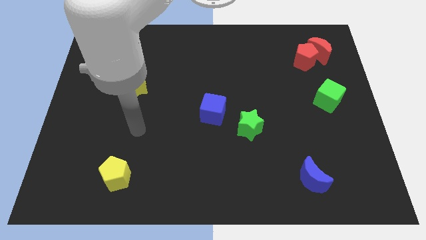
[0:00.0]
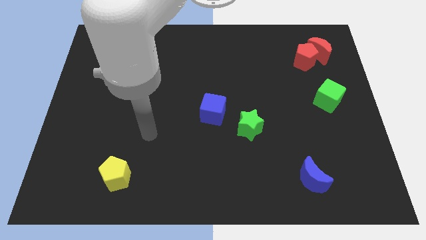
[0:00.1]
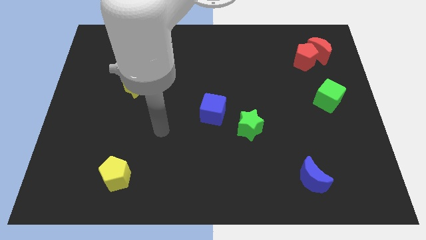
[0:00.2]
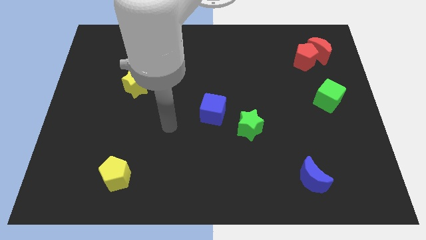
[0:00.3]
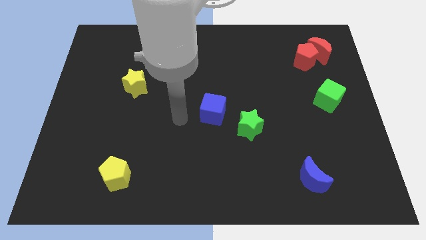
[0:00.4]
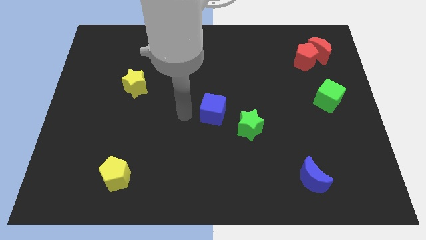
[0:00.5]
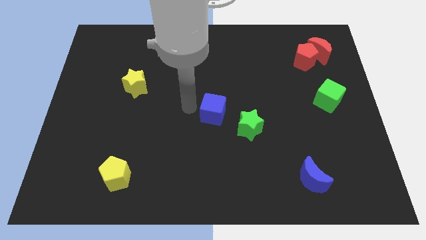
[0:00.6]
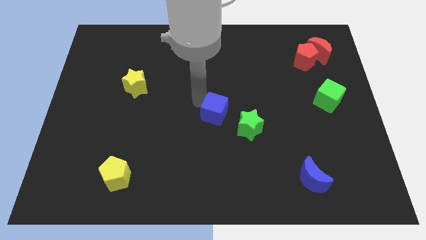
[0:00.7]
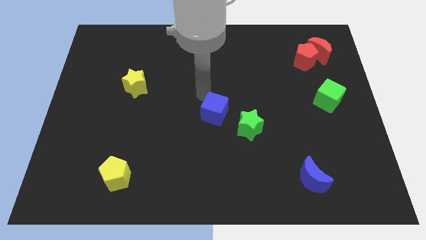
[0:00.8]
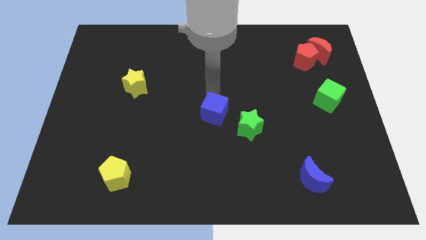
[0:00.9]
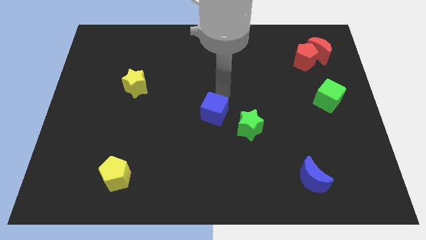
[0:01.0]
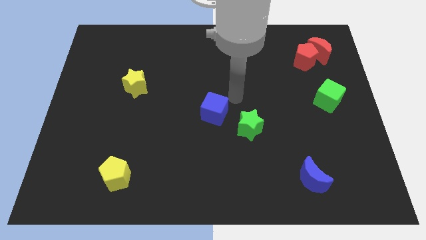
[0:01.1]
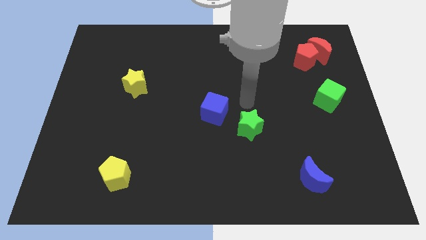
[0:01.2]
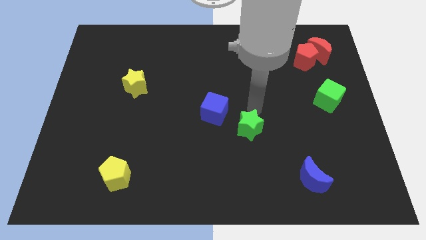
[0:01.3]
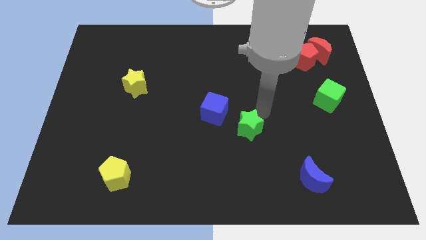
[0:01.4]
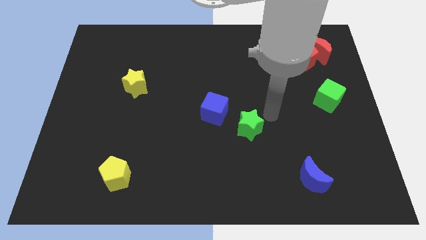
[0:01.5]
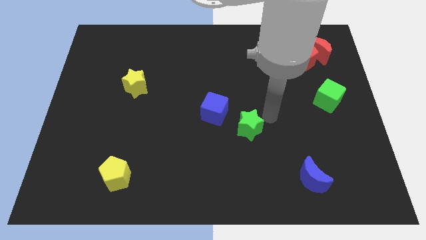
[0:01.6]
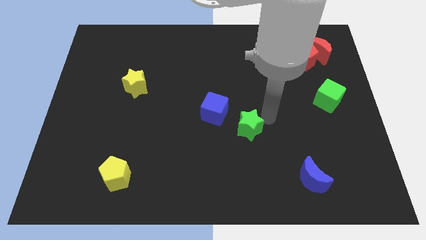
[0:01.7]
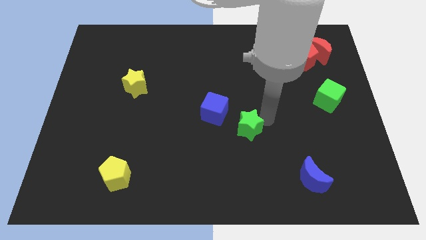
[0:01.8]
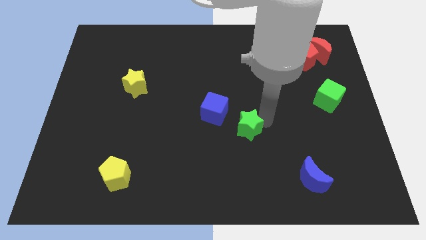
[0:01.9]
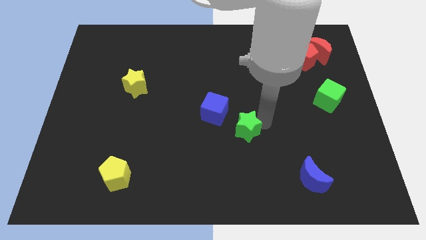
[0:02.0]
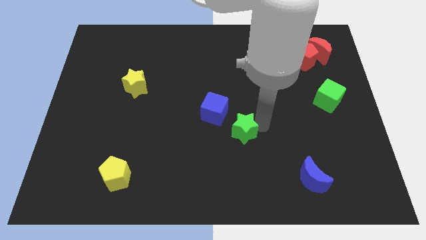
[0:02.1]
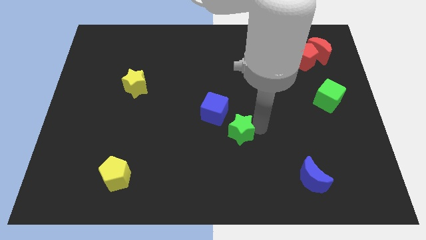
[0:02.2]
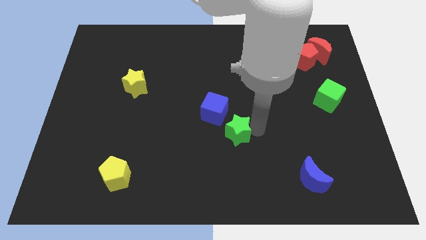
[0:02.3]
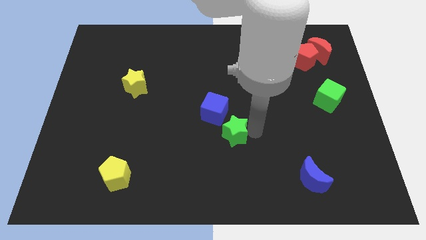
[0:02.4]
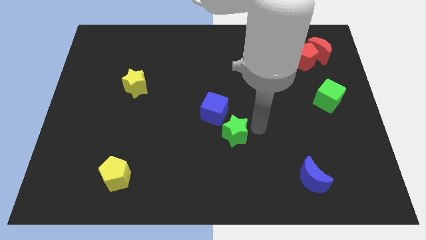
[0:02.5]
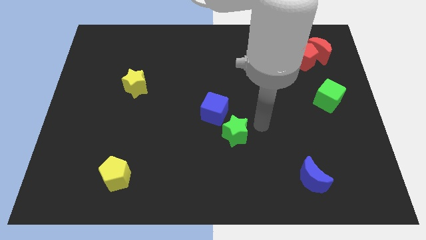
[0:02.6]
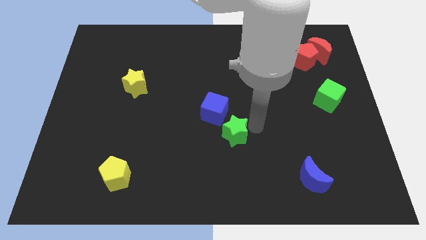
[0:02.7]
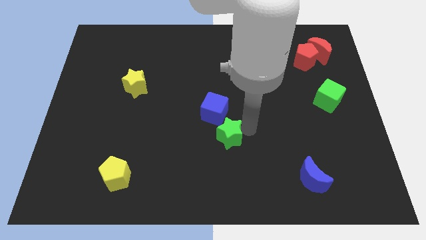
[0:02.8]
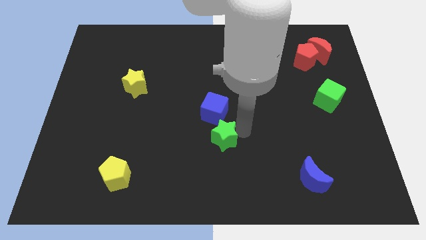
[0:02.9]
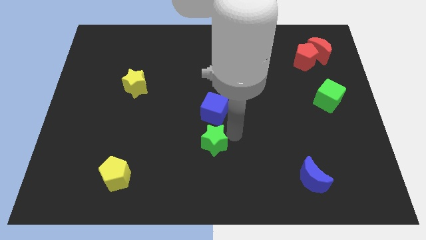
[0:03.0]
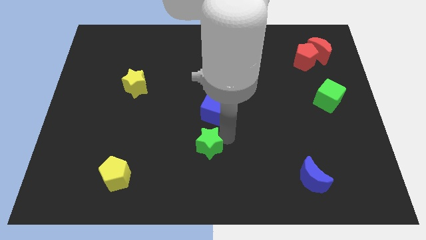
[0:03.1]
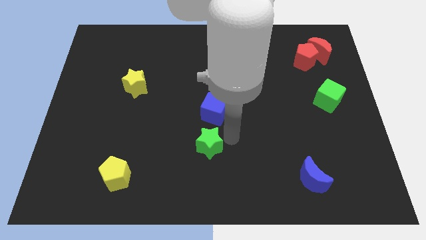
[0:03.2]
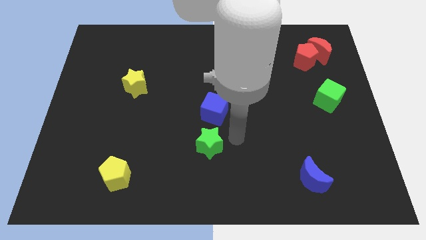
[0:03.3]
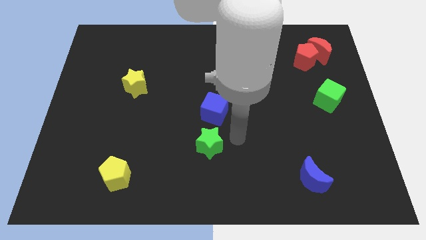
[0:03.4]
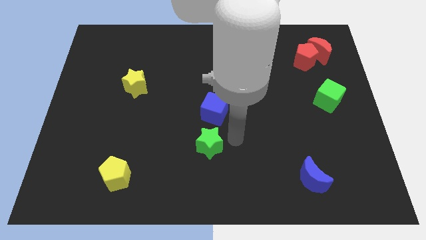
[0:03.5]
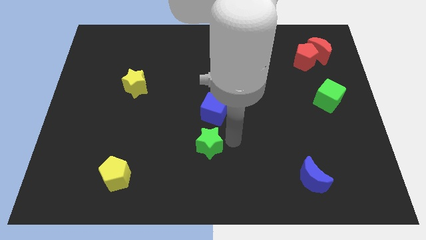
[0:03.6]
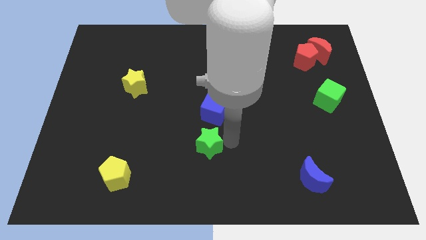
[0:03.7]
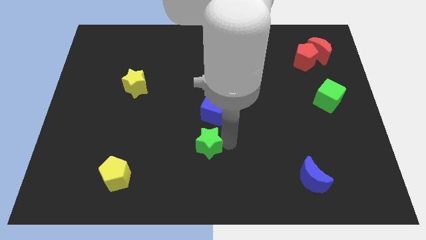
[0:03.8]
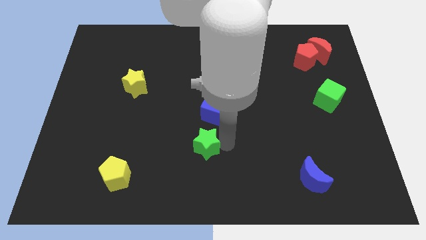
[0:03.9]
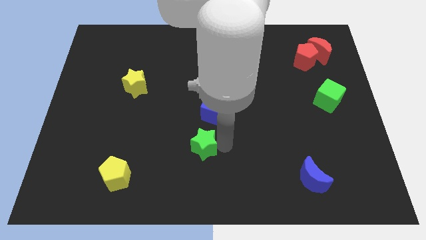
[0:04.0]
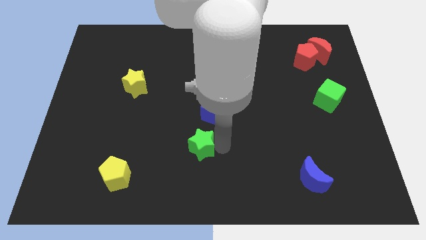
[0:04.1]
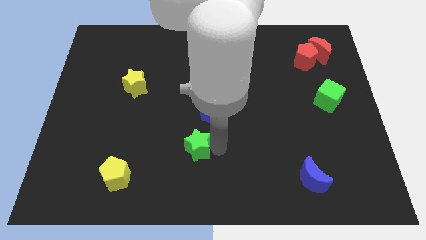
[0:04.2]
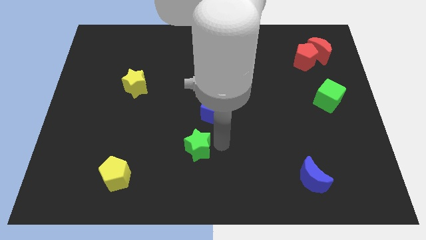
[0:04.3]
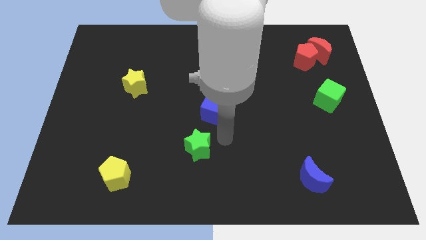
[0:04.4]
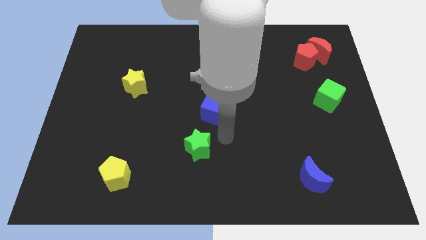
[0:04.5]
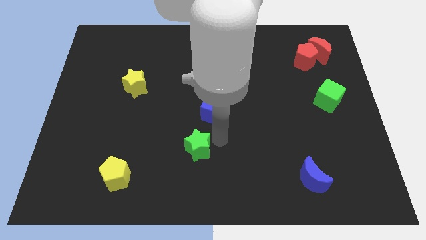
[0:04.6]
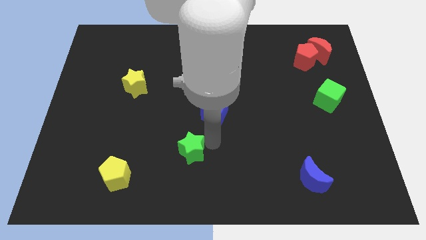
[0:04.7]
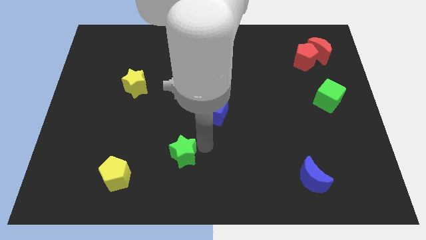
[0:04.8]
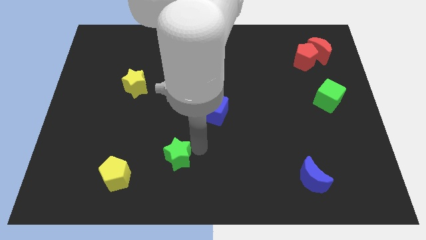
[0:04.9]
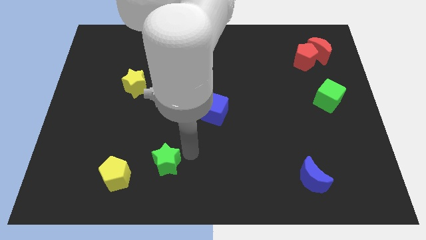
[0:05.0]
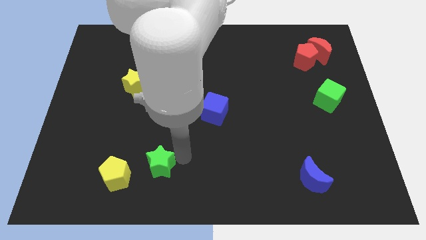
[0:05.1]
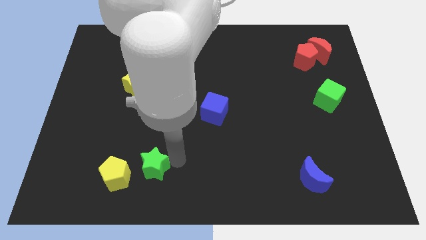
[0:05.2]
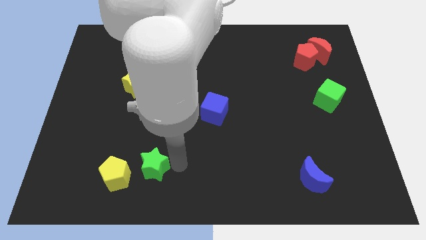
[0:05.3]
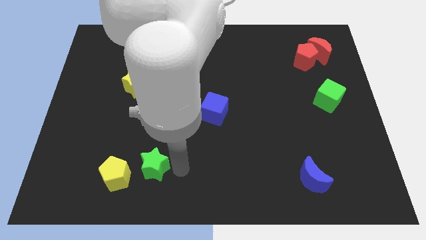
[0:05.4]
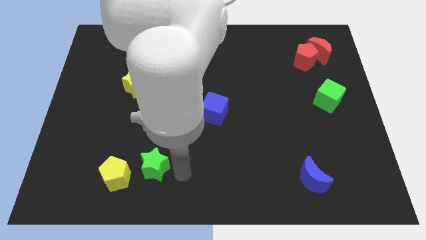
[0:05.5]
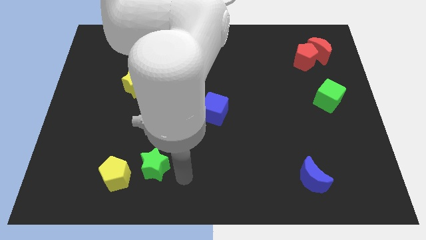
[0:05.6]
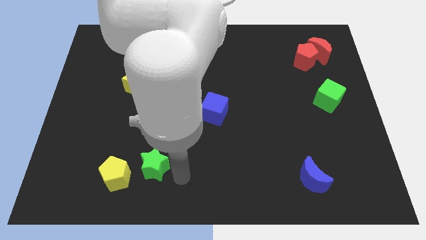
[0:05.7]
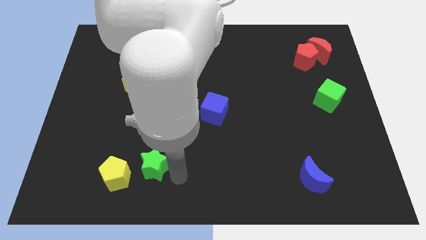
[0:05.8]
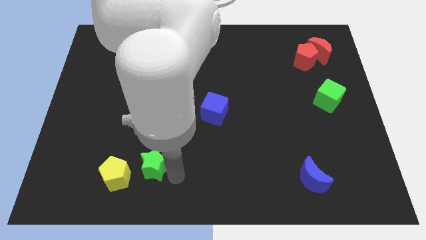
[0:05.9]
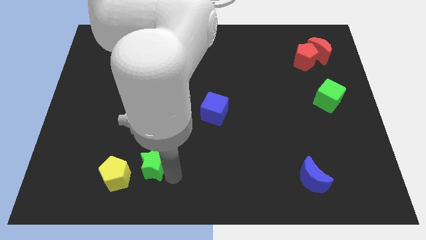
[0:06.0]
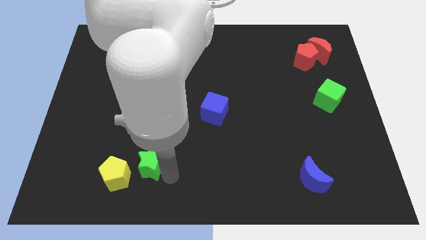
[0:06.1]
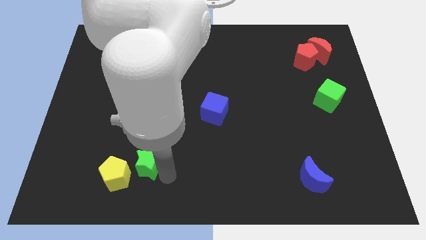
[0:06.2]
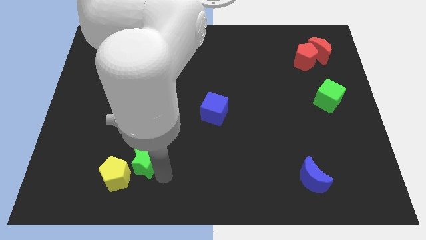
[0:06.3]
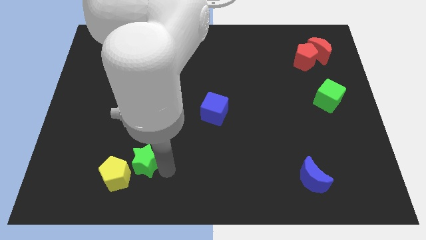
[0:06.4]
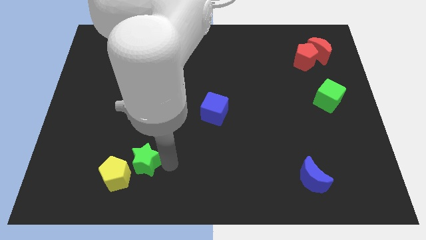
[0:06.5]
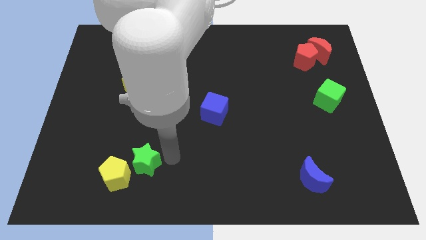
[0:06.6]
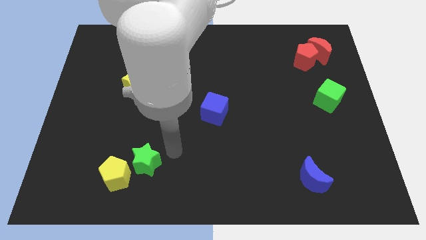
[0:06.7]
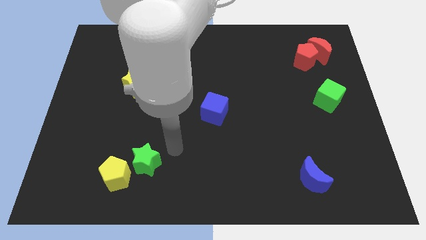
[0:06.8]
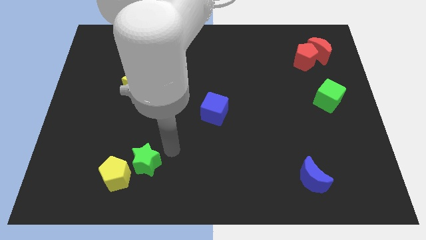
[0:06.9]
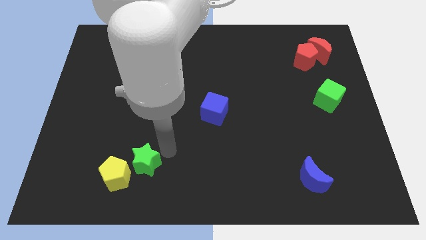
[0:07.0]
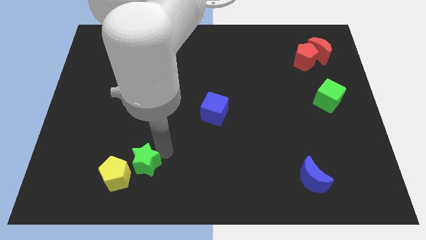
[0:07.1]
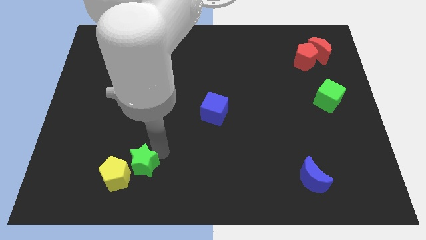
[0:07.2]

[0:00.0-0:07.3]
push the green star close to the yellow pentagon

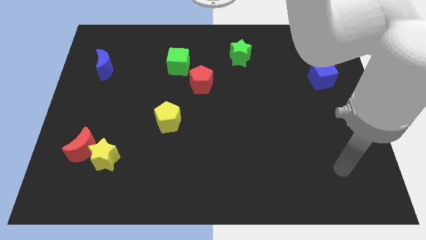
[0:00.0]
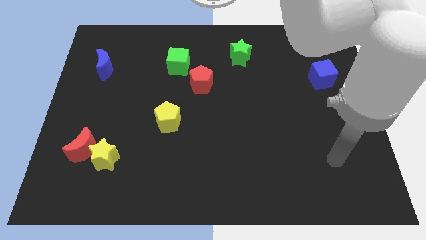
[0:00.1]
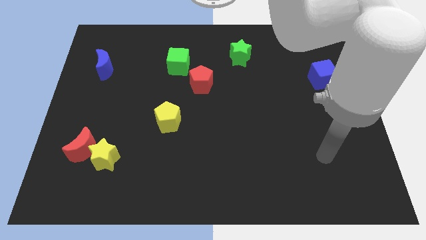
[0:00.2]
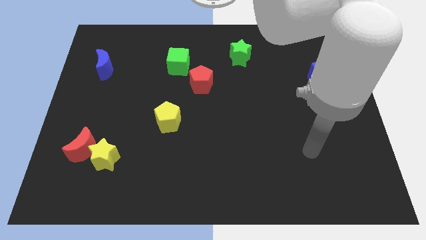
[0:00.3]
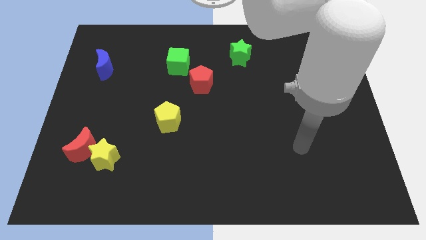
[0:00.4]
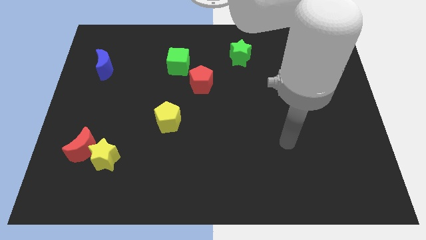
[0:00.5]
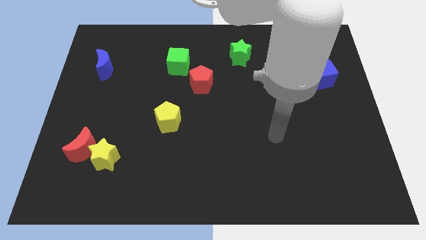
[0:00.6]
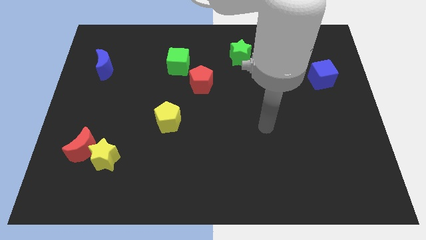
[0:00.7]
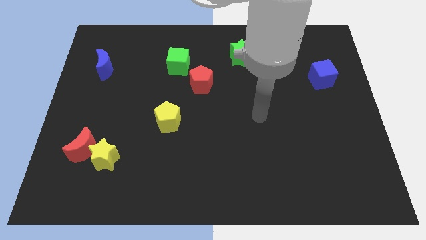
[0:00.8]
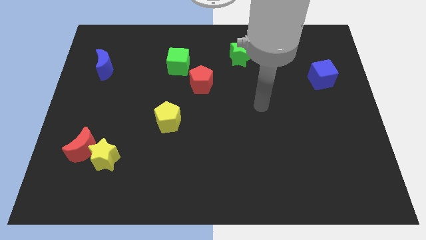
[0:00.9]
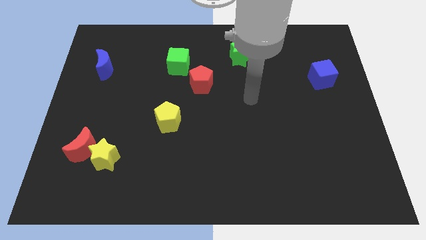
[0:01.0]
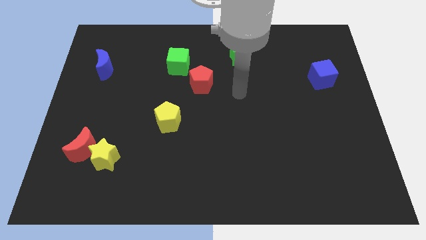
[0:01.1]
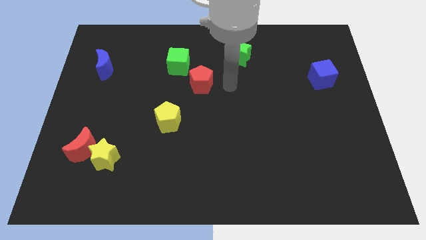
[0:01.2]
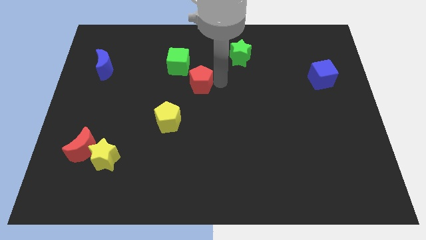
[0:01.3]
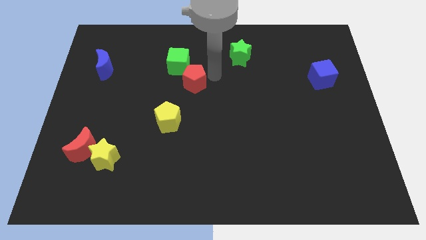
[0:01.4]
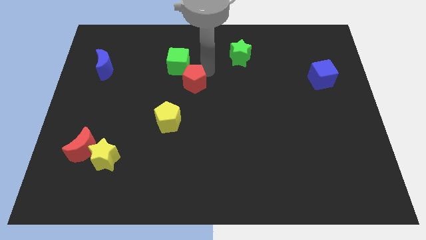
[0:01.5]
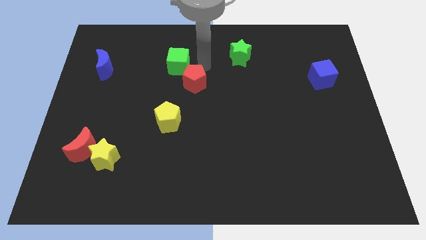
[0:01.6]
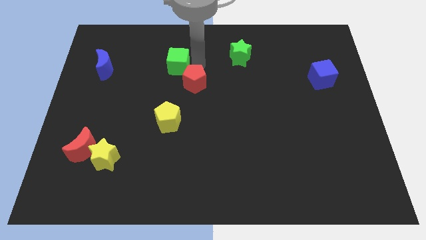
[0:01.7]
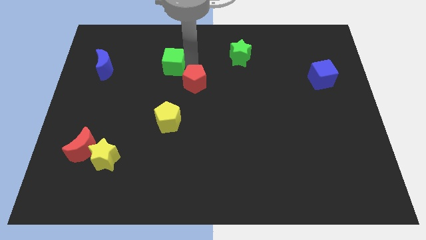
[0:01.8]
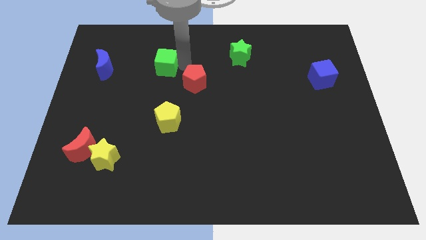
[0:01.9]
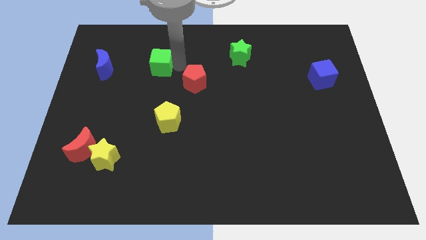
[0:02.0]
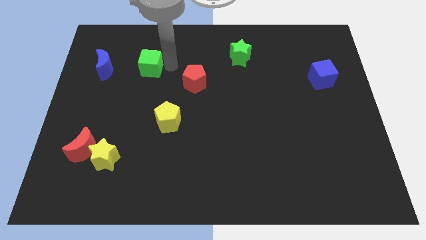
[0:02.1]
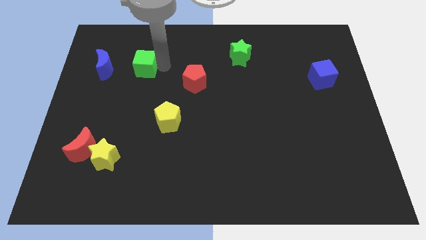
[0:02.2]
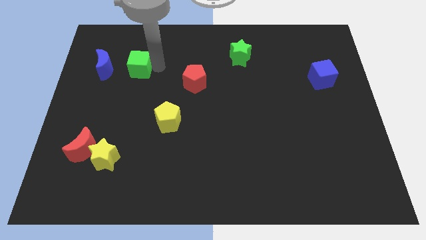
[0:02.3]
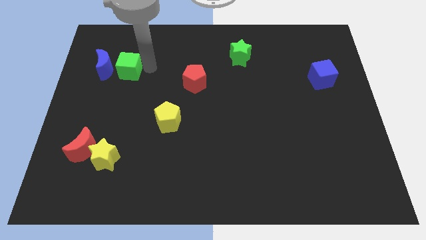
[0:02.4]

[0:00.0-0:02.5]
move the green cube towards the blue moon
